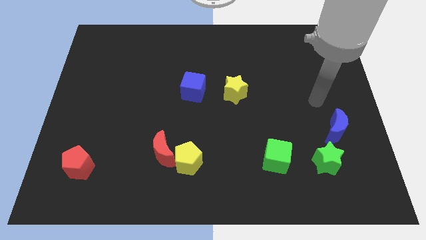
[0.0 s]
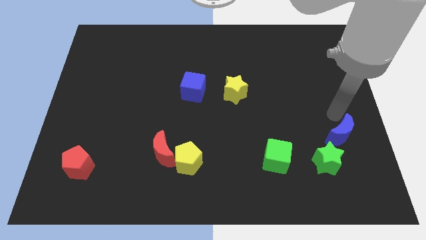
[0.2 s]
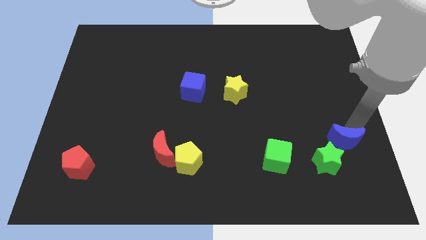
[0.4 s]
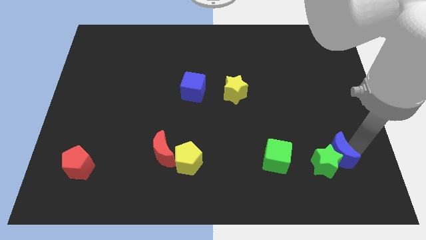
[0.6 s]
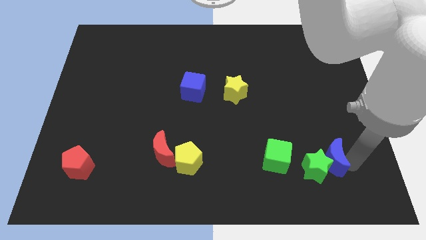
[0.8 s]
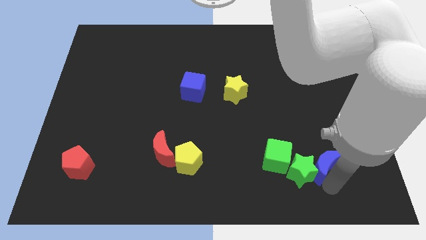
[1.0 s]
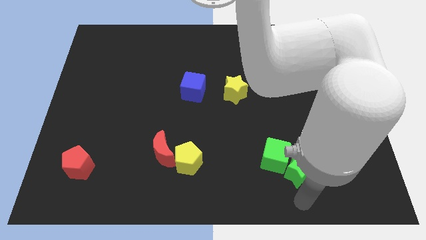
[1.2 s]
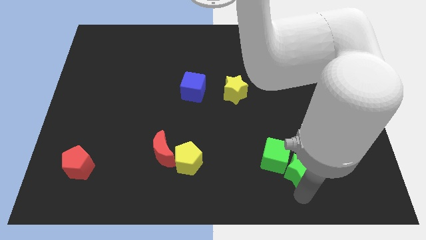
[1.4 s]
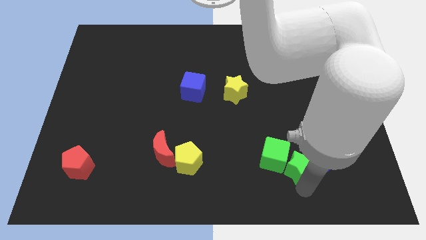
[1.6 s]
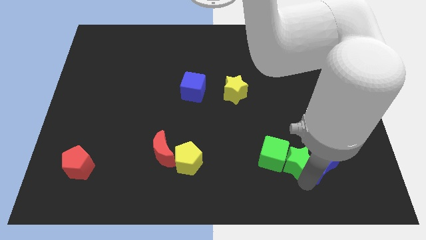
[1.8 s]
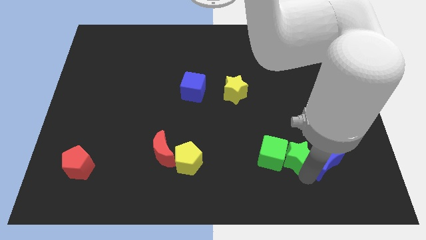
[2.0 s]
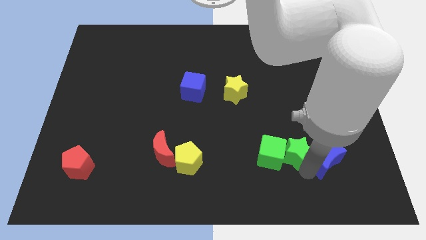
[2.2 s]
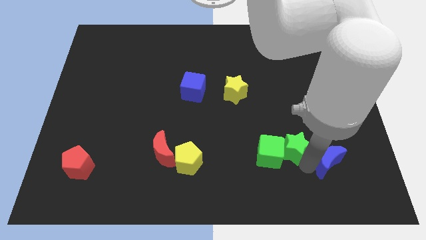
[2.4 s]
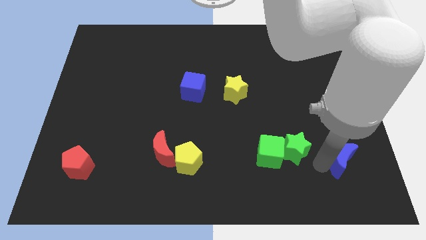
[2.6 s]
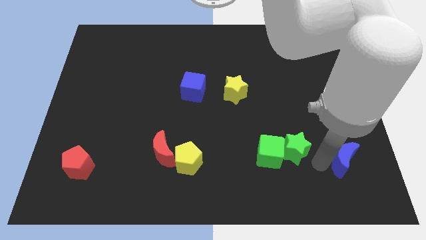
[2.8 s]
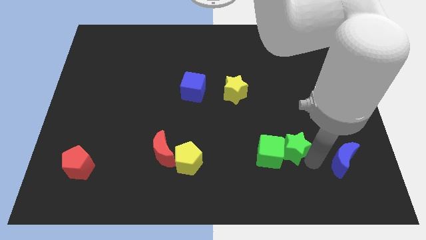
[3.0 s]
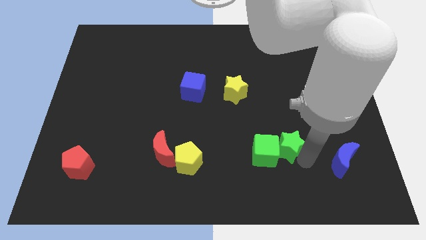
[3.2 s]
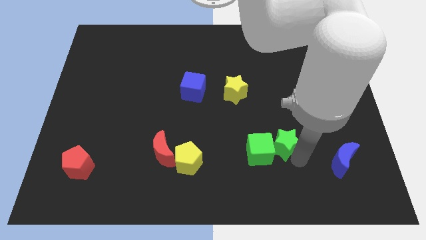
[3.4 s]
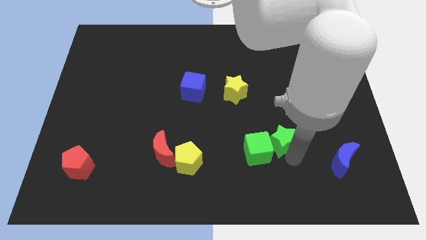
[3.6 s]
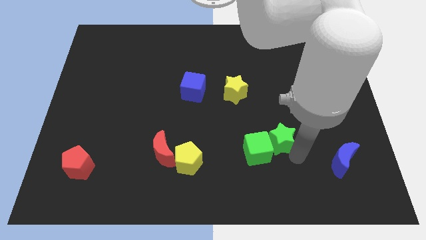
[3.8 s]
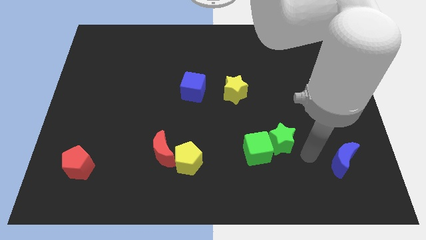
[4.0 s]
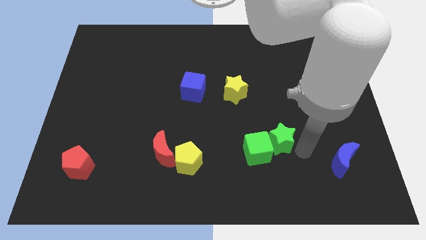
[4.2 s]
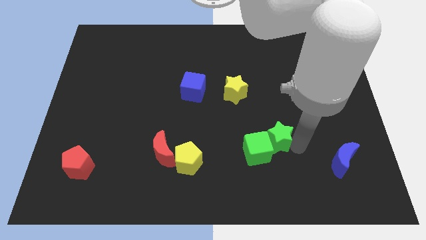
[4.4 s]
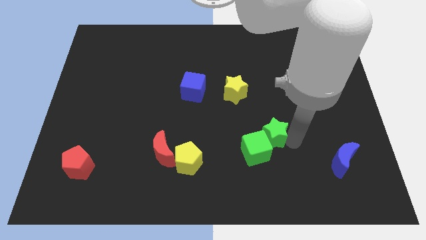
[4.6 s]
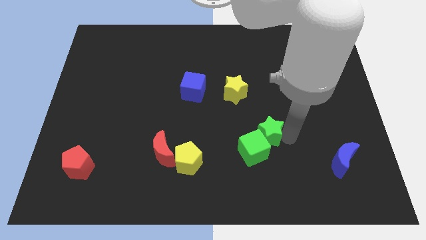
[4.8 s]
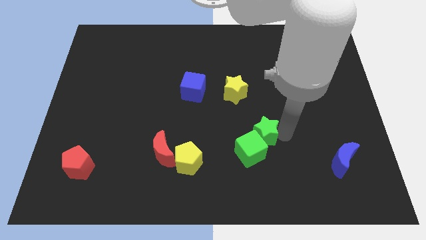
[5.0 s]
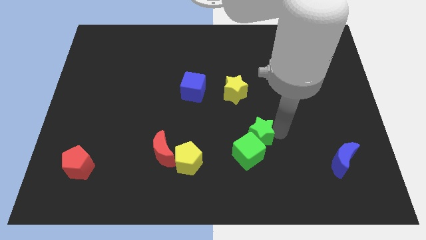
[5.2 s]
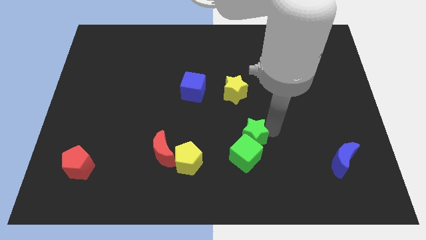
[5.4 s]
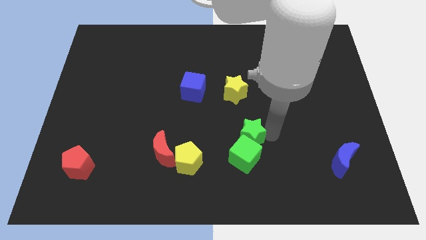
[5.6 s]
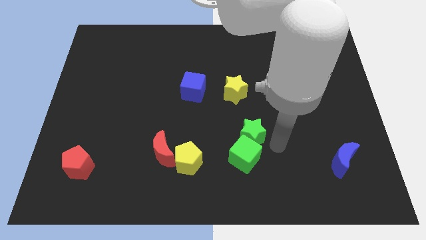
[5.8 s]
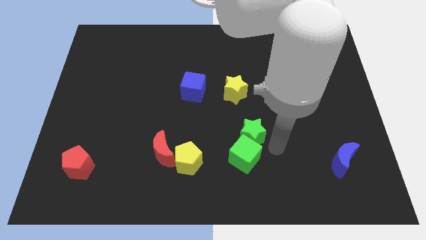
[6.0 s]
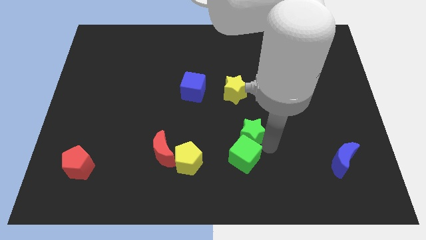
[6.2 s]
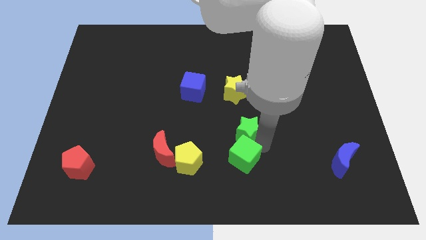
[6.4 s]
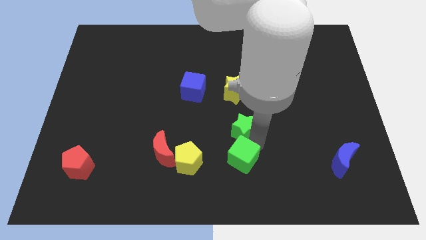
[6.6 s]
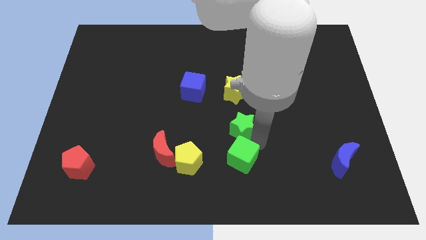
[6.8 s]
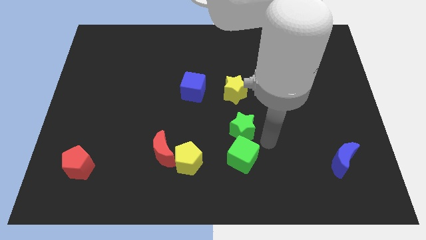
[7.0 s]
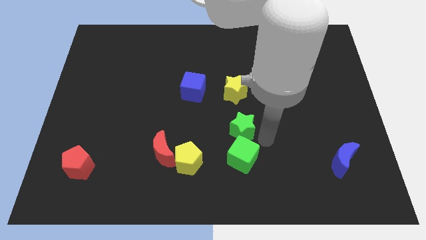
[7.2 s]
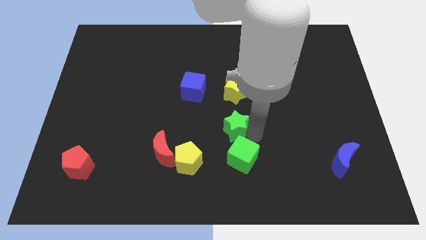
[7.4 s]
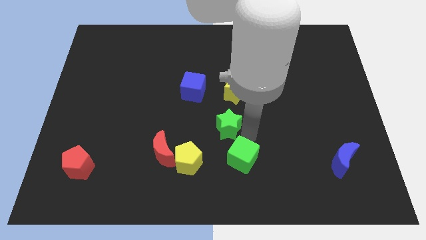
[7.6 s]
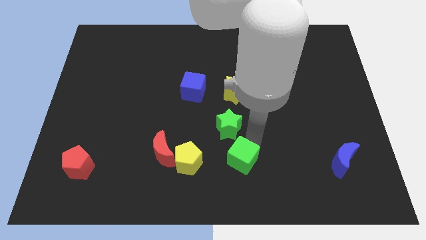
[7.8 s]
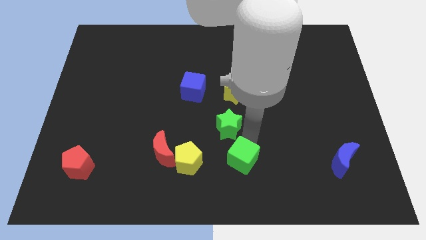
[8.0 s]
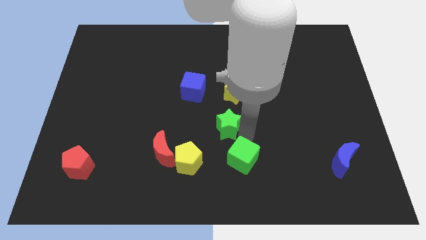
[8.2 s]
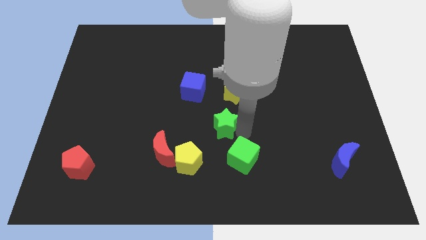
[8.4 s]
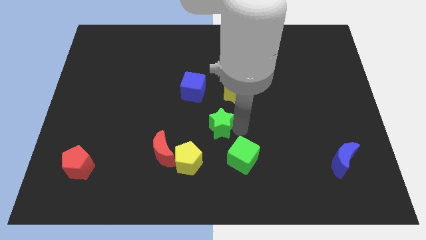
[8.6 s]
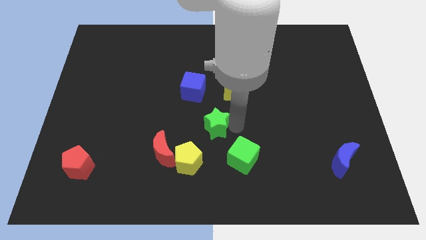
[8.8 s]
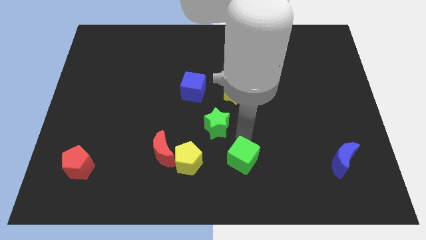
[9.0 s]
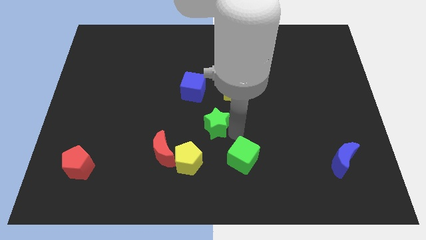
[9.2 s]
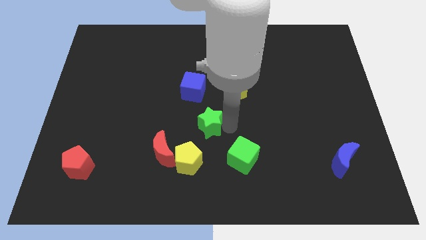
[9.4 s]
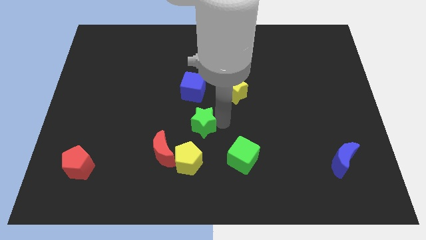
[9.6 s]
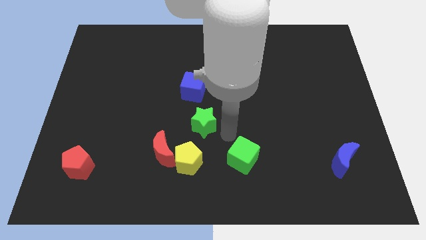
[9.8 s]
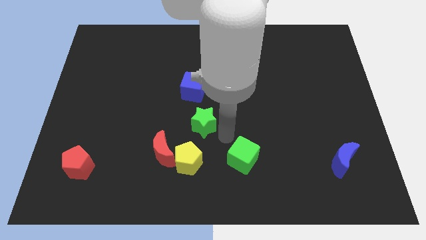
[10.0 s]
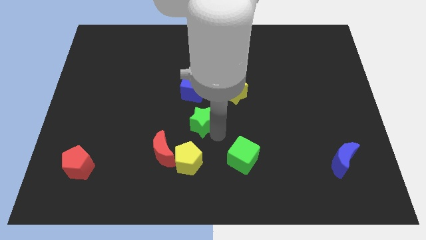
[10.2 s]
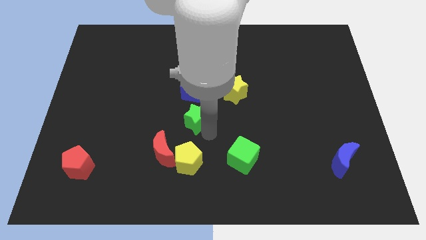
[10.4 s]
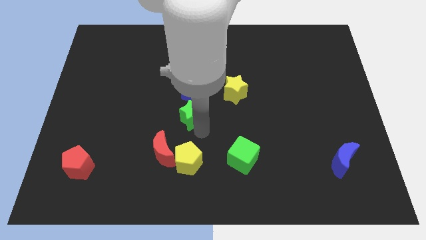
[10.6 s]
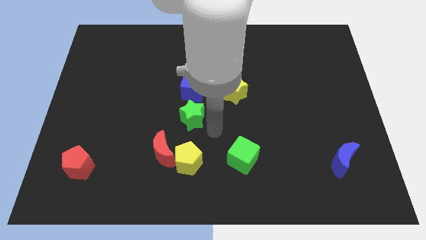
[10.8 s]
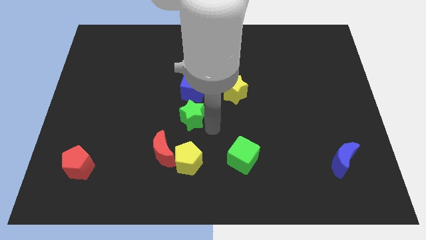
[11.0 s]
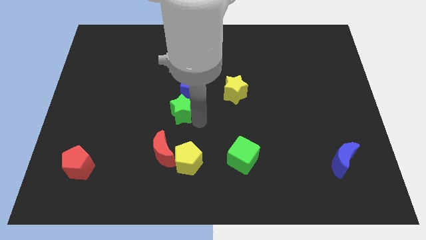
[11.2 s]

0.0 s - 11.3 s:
move the green star diagonally down and to the left of the blue cube

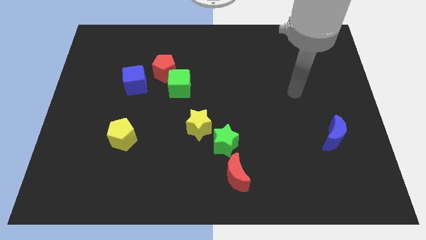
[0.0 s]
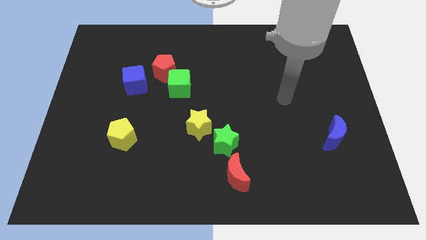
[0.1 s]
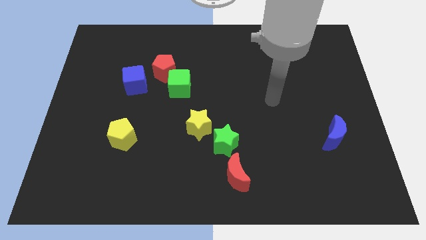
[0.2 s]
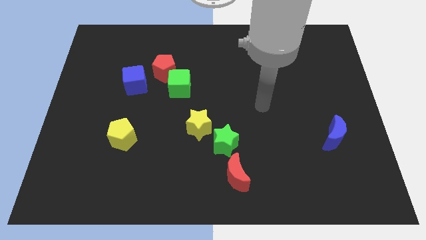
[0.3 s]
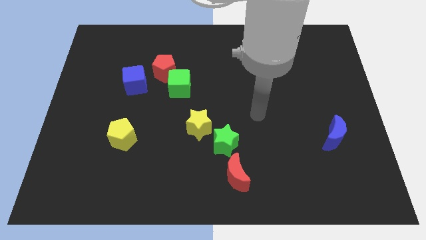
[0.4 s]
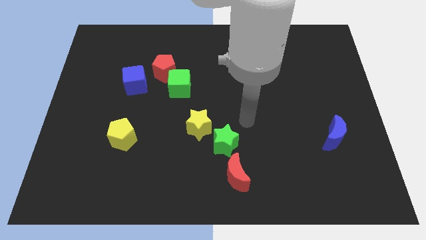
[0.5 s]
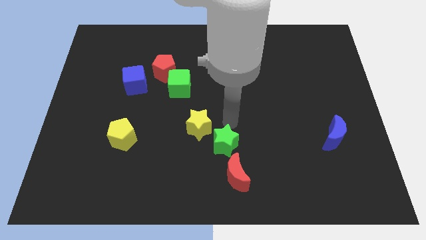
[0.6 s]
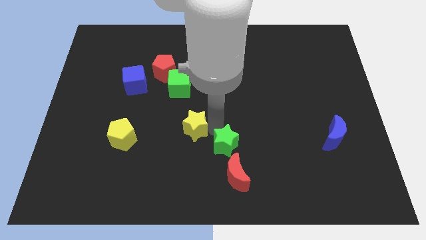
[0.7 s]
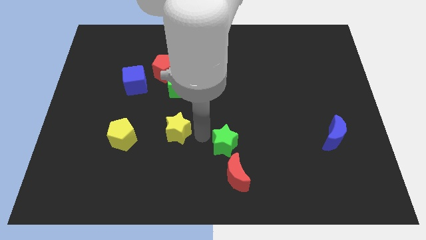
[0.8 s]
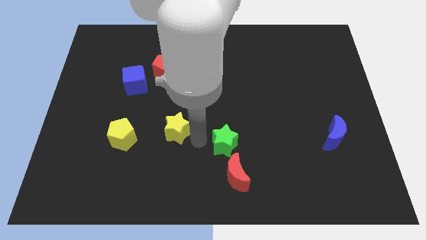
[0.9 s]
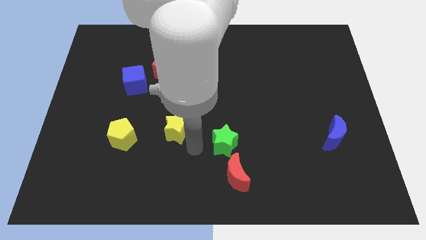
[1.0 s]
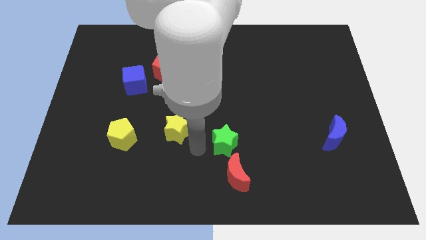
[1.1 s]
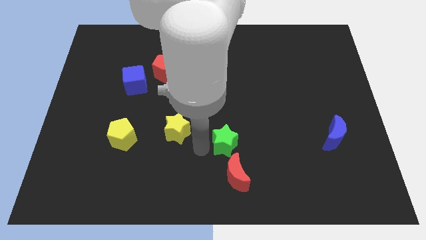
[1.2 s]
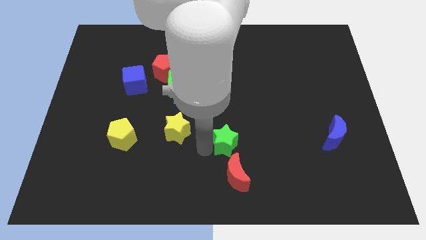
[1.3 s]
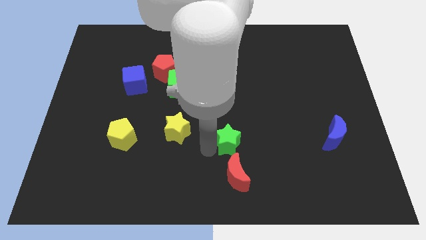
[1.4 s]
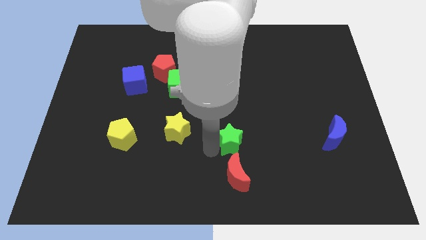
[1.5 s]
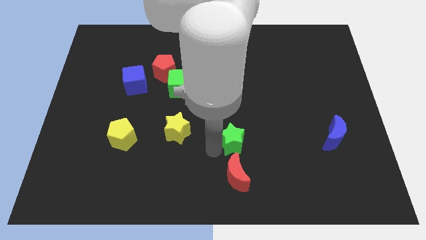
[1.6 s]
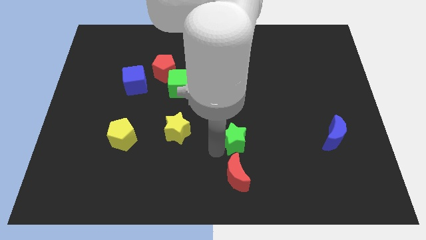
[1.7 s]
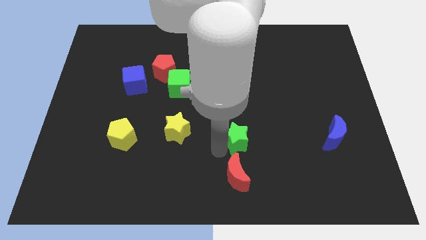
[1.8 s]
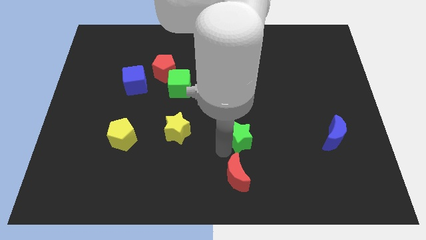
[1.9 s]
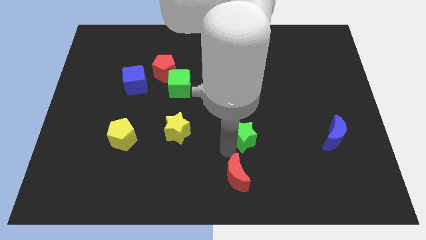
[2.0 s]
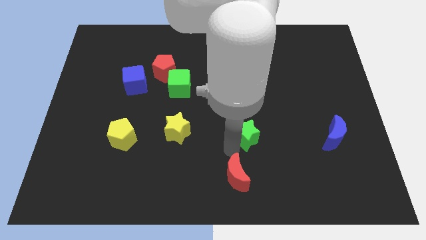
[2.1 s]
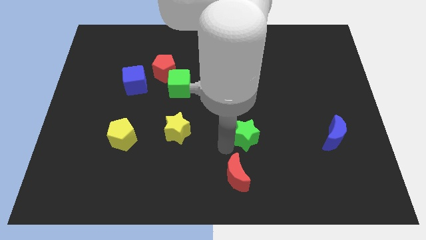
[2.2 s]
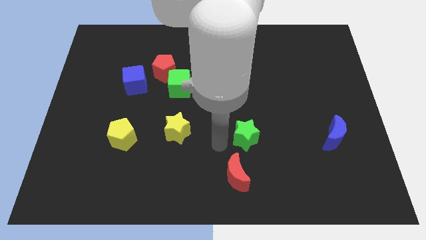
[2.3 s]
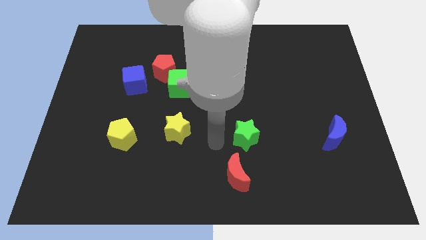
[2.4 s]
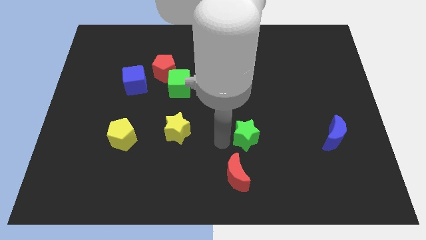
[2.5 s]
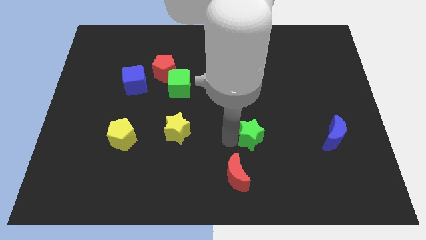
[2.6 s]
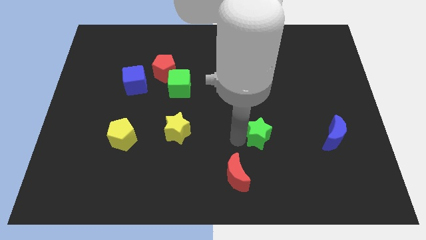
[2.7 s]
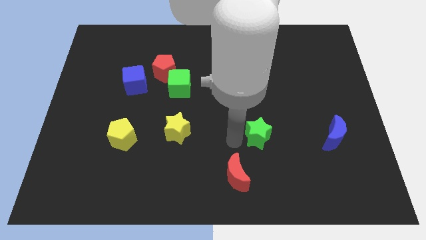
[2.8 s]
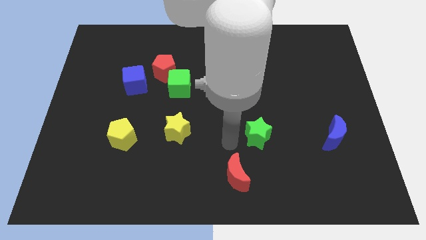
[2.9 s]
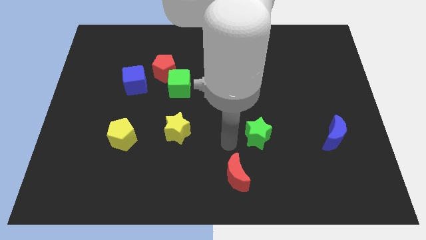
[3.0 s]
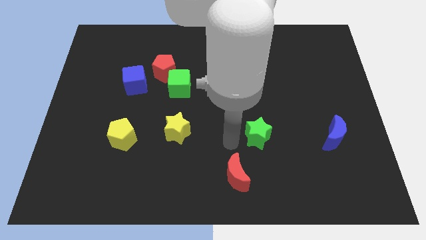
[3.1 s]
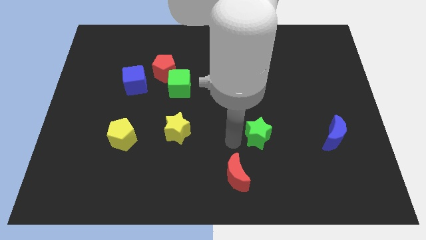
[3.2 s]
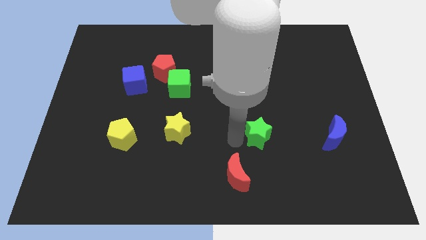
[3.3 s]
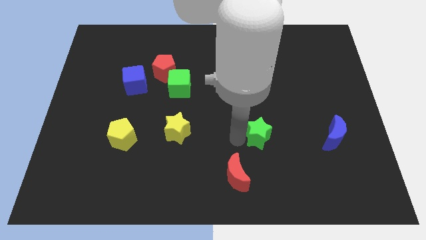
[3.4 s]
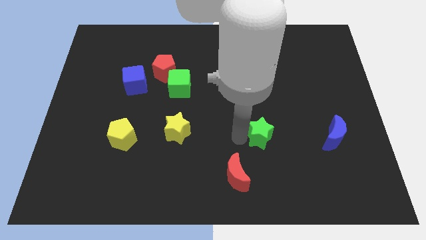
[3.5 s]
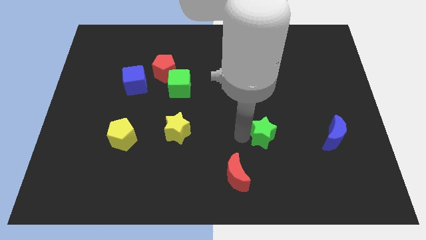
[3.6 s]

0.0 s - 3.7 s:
move the green star to the left side of the blue moon
